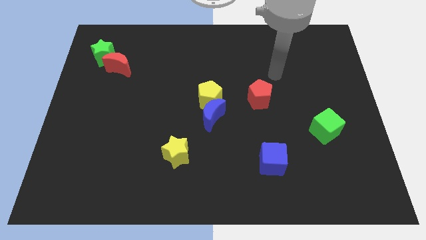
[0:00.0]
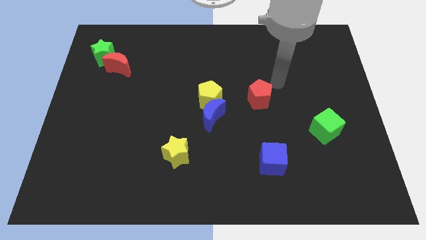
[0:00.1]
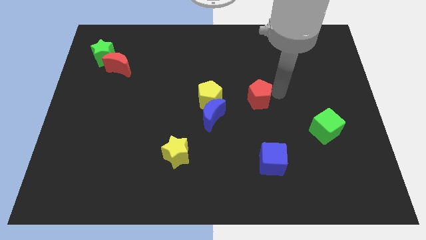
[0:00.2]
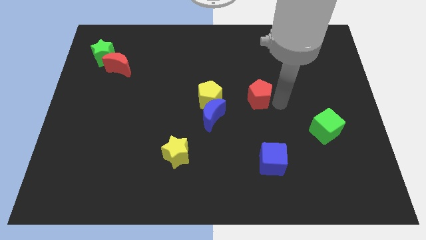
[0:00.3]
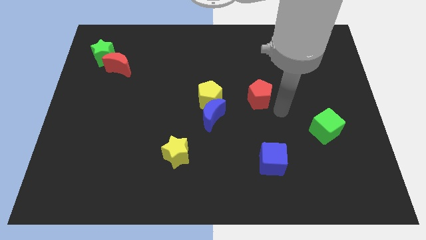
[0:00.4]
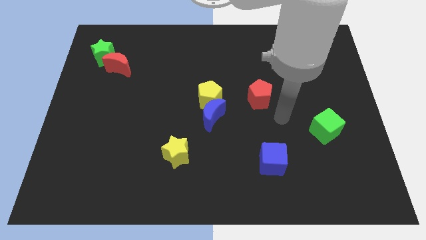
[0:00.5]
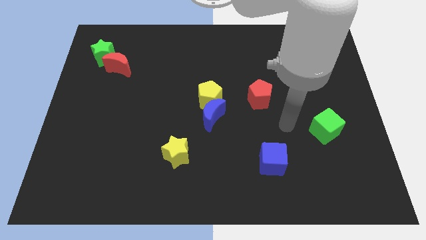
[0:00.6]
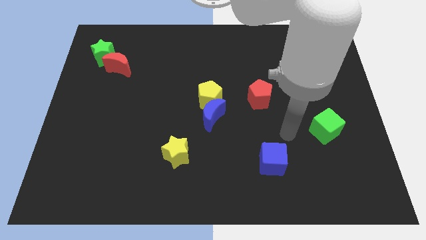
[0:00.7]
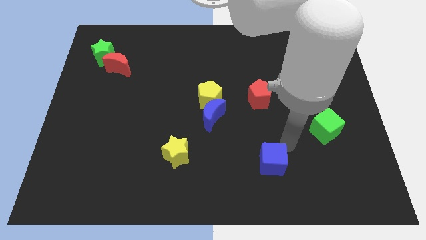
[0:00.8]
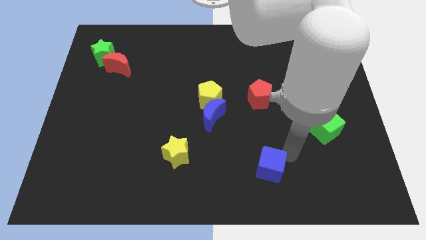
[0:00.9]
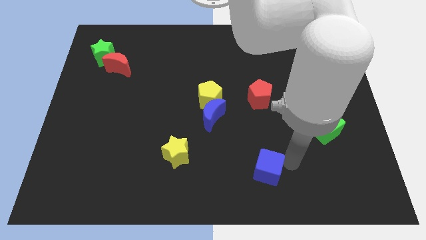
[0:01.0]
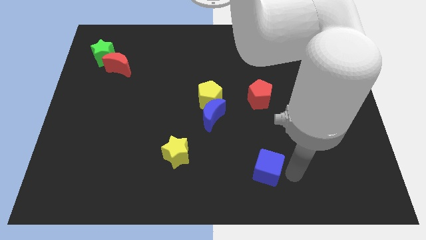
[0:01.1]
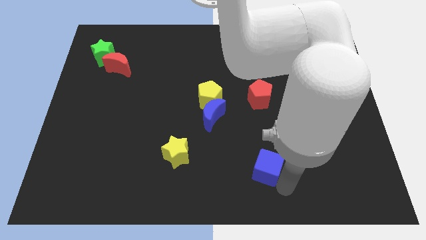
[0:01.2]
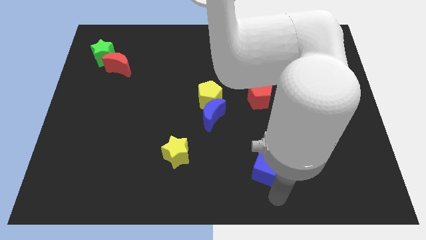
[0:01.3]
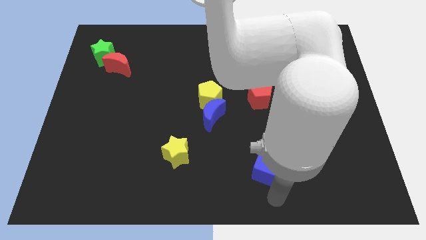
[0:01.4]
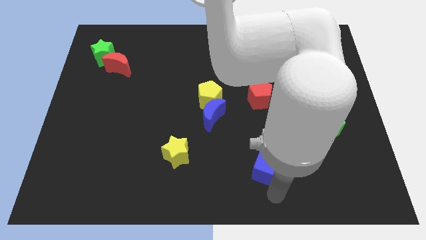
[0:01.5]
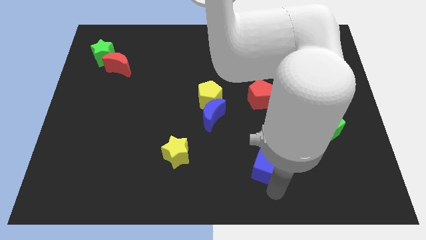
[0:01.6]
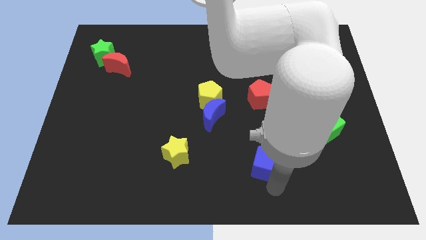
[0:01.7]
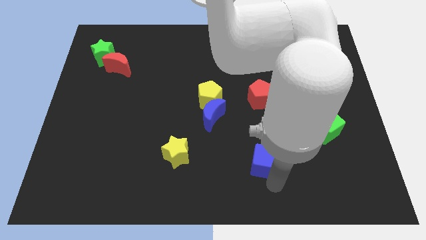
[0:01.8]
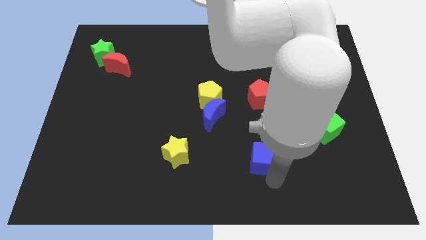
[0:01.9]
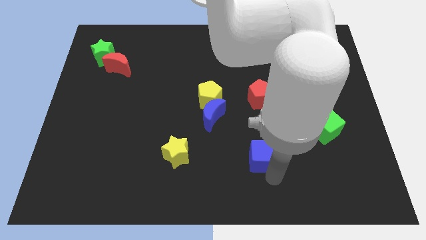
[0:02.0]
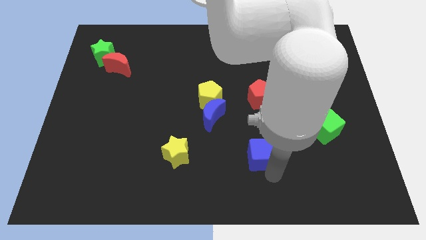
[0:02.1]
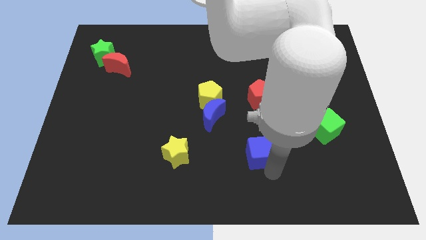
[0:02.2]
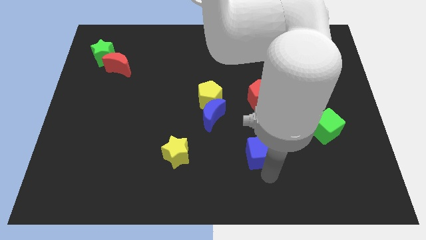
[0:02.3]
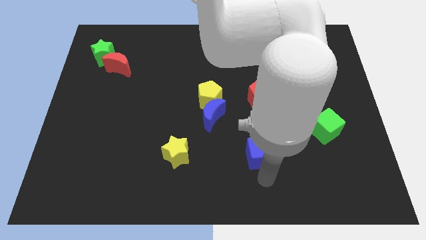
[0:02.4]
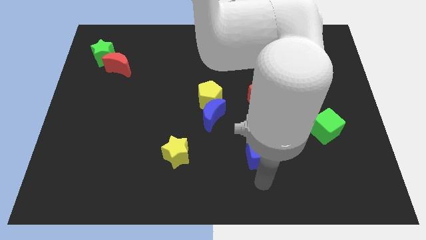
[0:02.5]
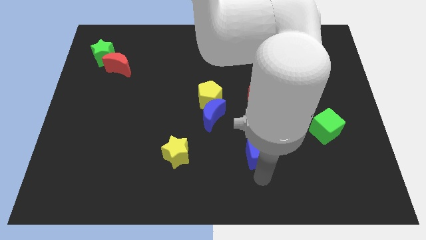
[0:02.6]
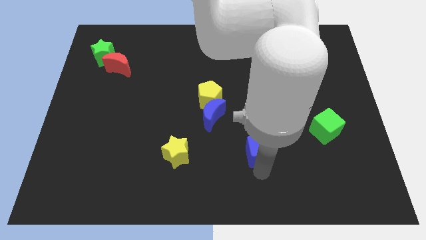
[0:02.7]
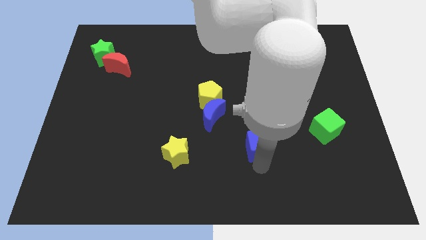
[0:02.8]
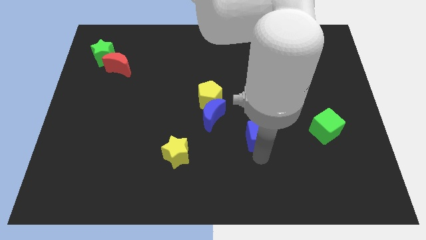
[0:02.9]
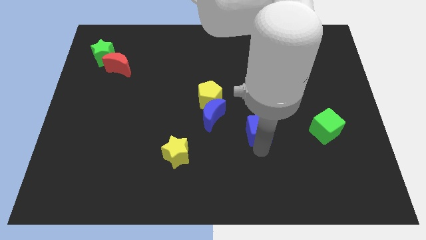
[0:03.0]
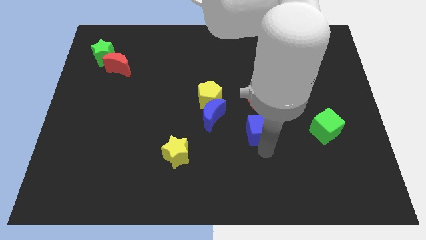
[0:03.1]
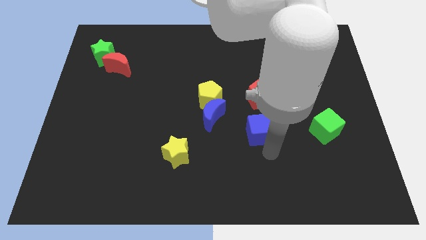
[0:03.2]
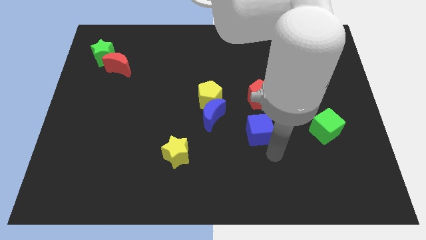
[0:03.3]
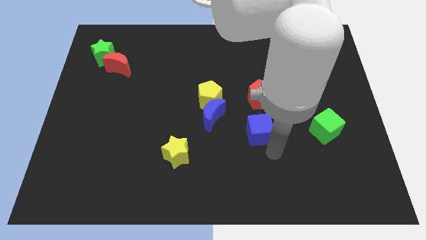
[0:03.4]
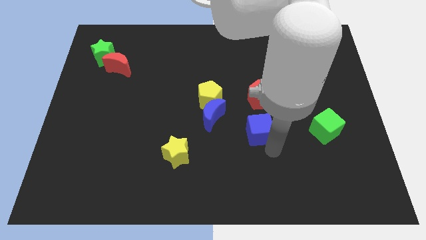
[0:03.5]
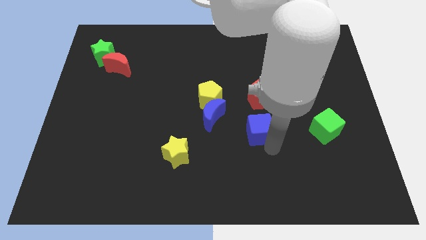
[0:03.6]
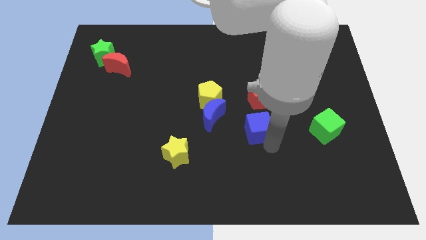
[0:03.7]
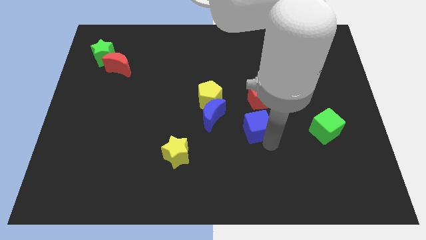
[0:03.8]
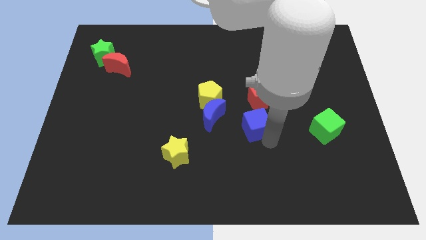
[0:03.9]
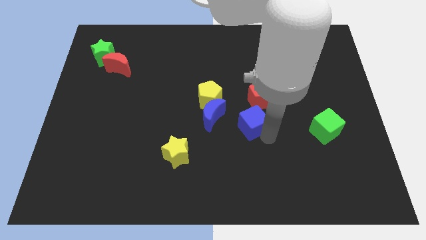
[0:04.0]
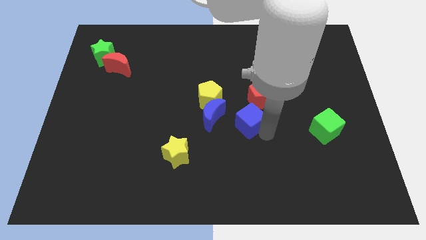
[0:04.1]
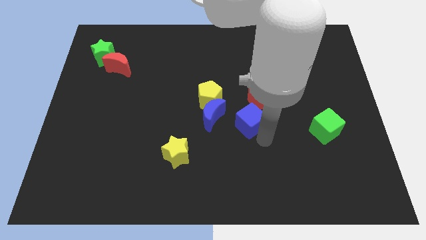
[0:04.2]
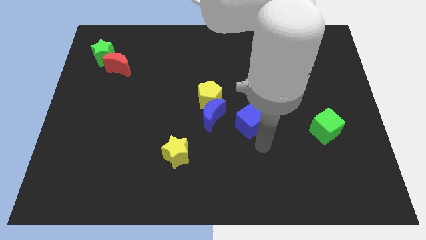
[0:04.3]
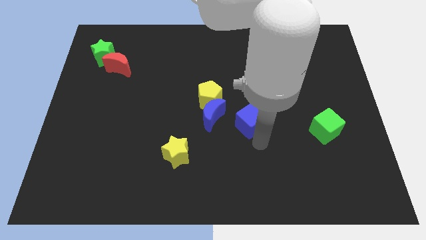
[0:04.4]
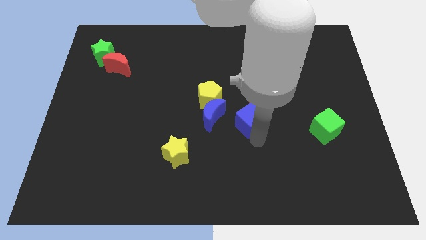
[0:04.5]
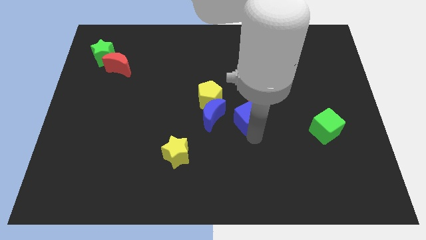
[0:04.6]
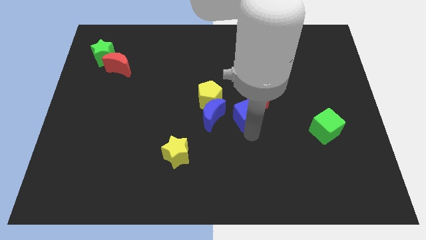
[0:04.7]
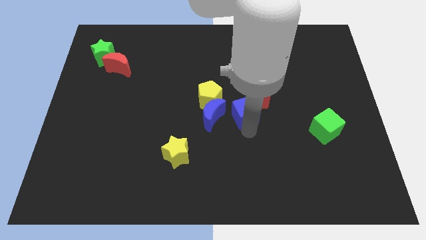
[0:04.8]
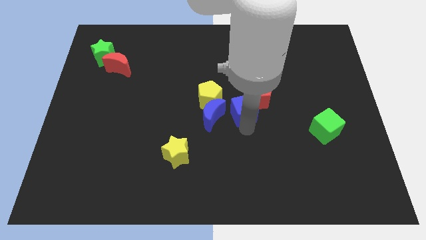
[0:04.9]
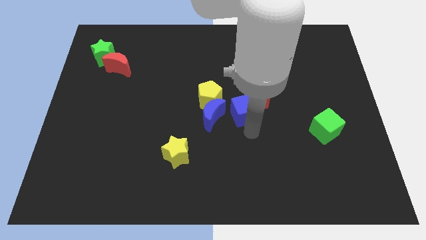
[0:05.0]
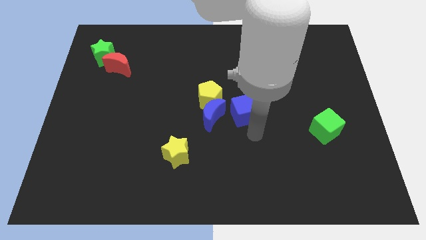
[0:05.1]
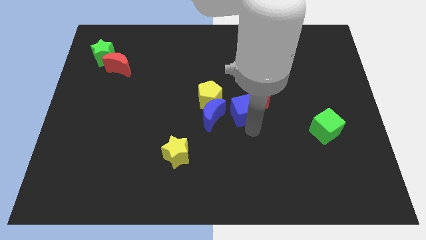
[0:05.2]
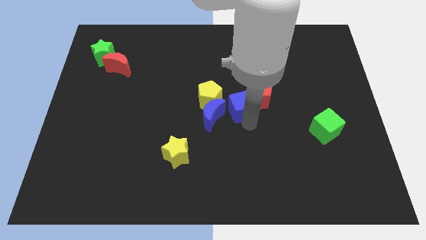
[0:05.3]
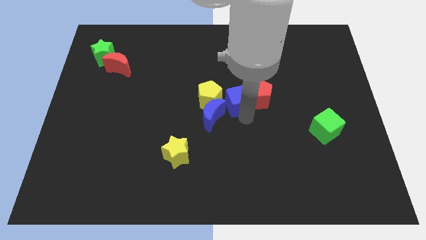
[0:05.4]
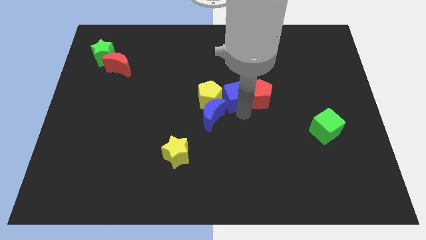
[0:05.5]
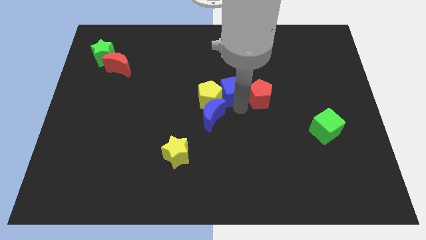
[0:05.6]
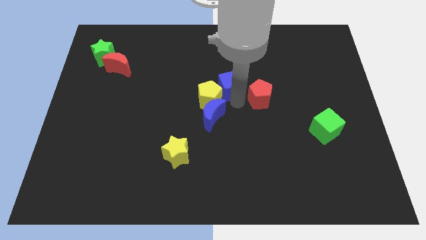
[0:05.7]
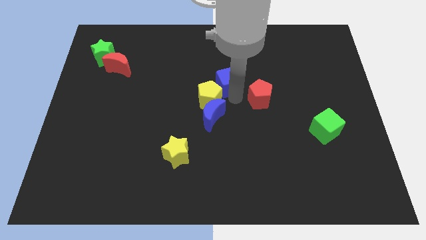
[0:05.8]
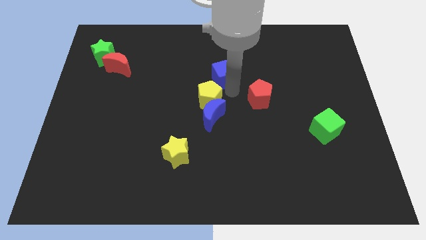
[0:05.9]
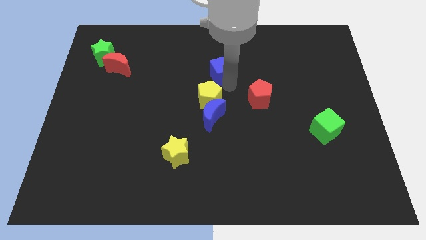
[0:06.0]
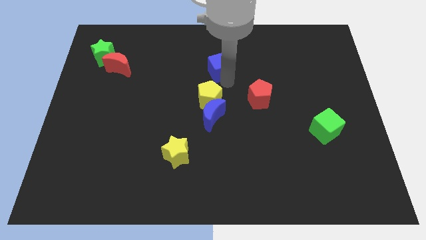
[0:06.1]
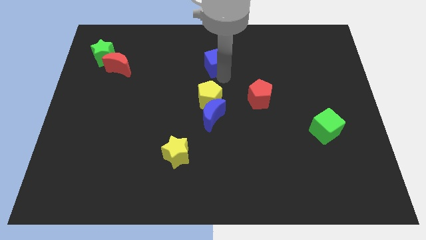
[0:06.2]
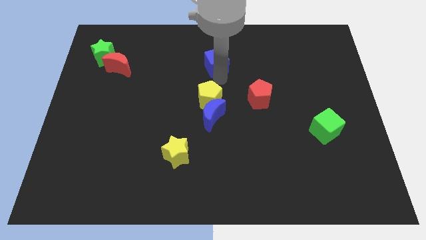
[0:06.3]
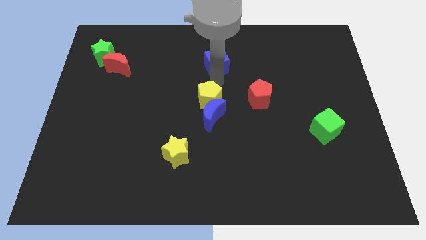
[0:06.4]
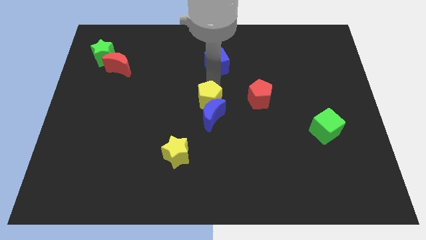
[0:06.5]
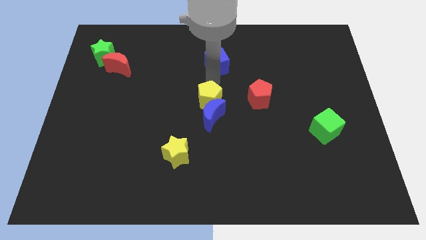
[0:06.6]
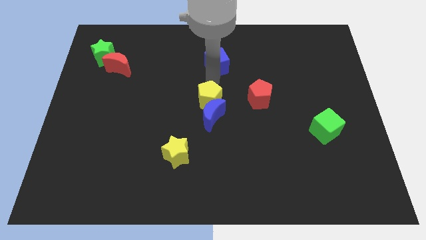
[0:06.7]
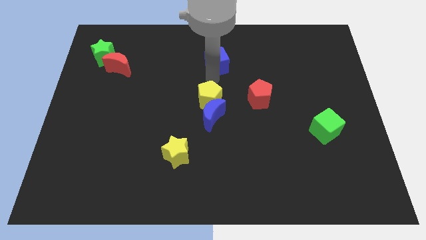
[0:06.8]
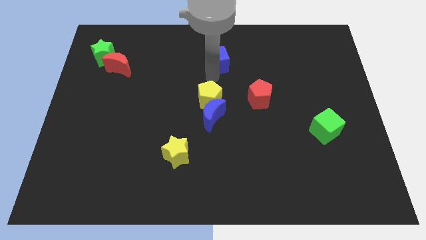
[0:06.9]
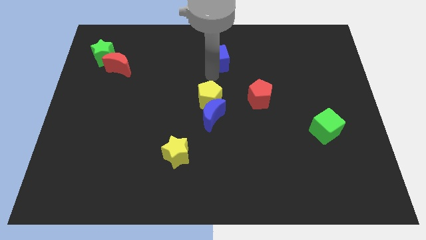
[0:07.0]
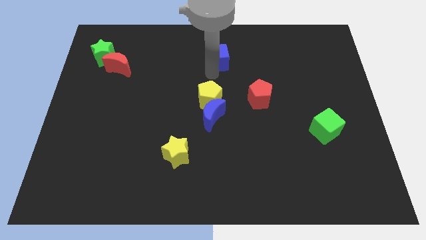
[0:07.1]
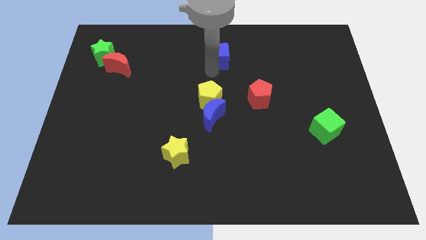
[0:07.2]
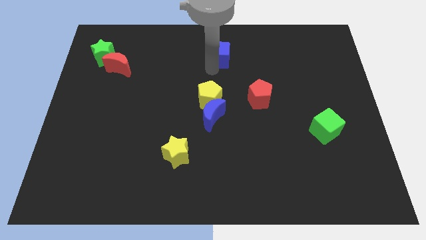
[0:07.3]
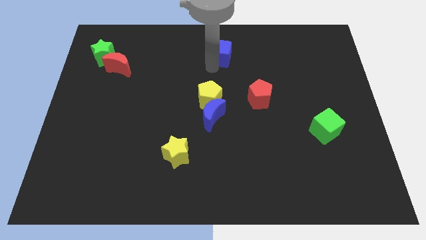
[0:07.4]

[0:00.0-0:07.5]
push the blue cube to the top side
